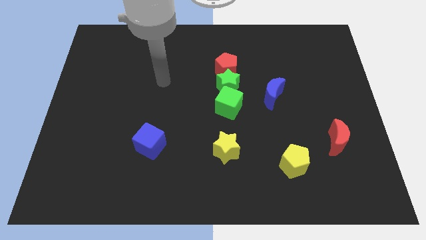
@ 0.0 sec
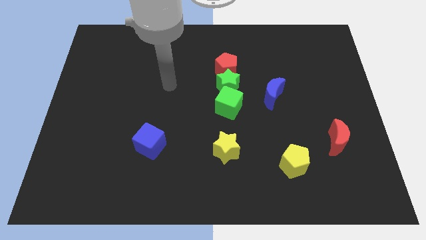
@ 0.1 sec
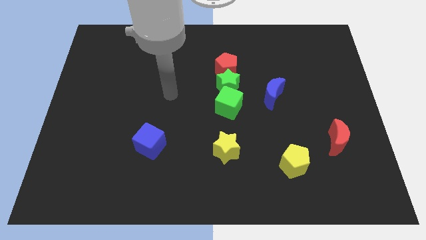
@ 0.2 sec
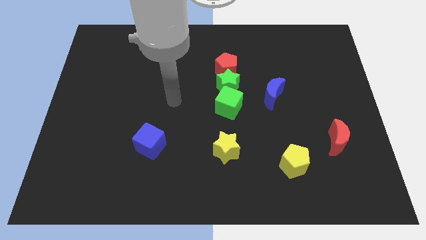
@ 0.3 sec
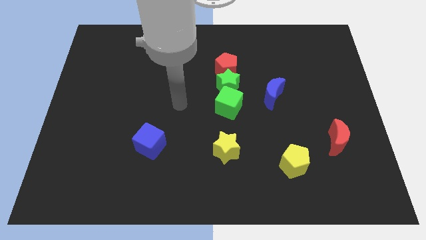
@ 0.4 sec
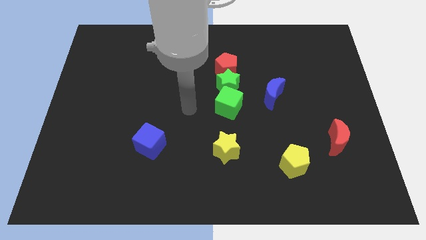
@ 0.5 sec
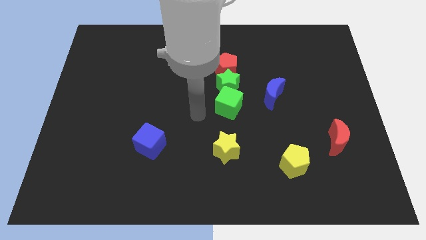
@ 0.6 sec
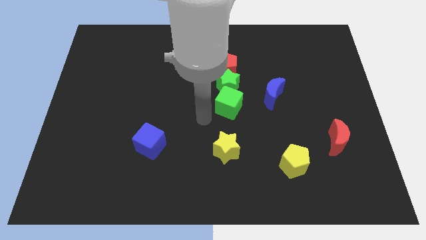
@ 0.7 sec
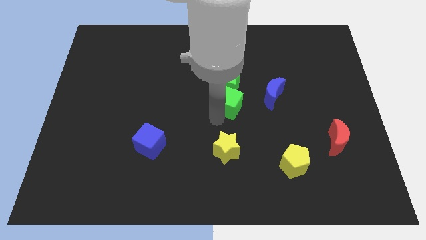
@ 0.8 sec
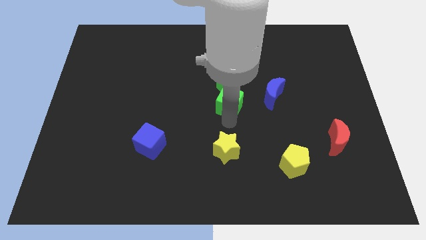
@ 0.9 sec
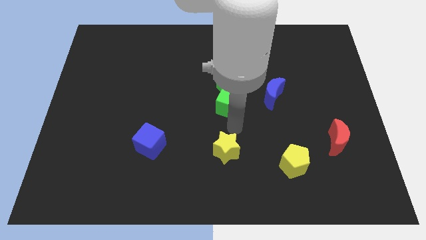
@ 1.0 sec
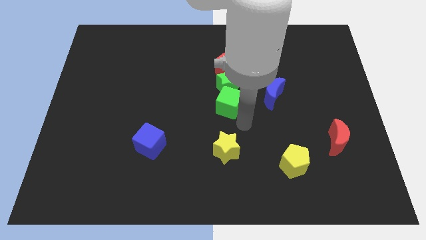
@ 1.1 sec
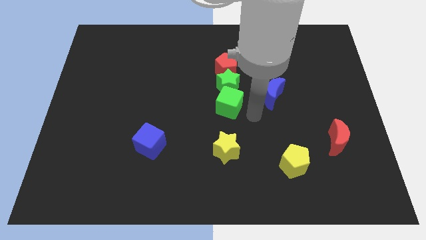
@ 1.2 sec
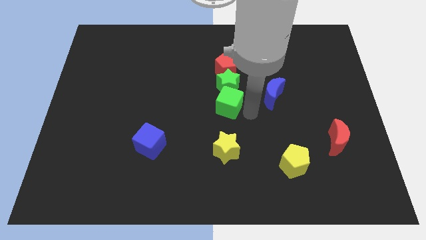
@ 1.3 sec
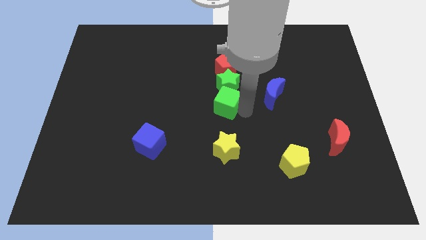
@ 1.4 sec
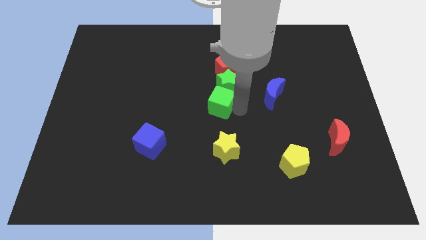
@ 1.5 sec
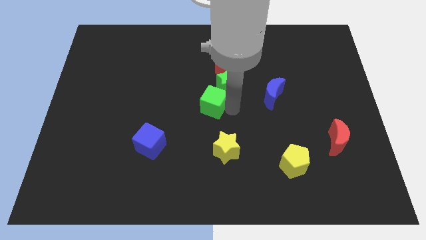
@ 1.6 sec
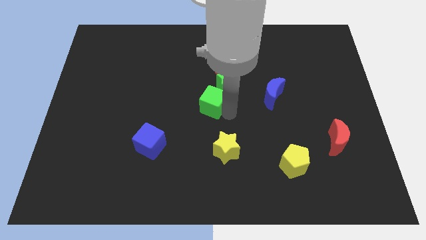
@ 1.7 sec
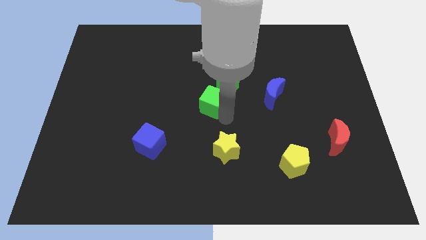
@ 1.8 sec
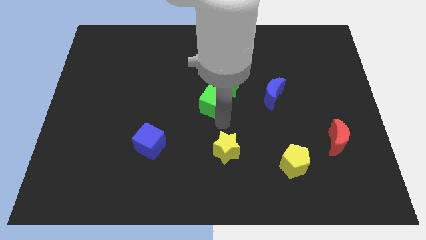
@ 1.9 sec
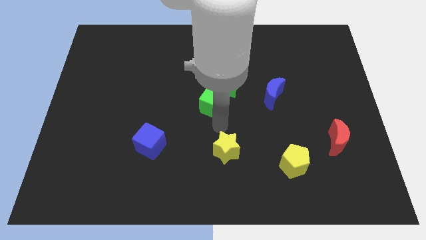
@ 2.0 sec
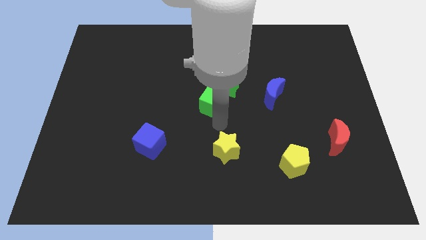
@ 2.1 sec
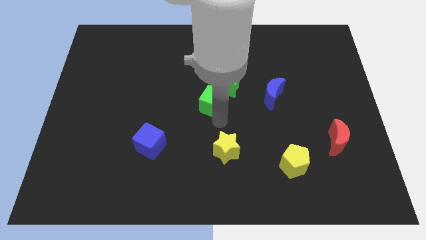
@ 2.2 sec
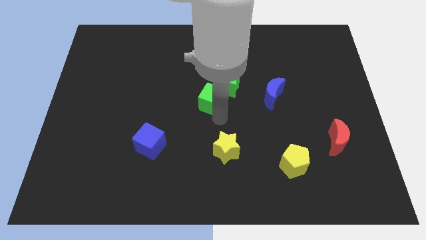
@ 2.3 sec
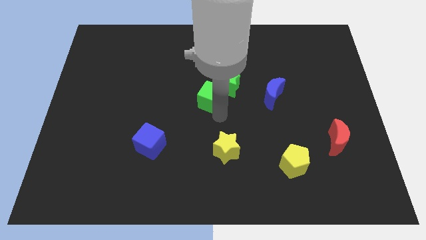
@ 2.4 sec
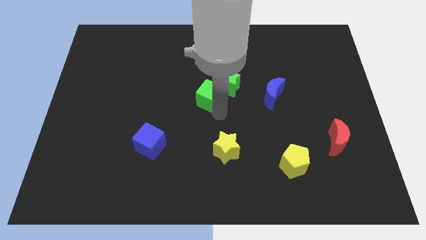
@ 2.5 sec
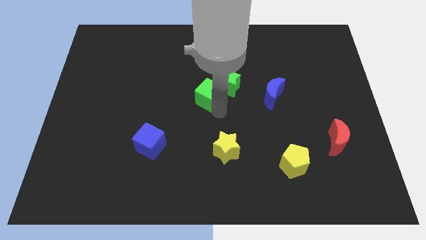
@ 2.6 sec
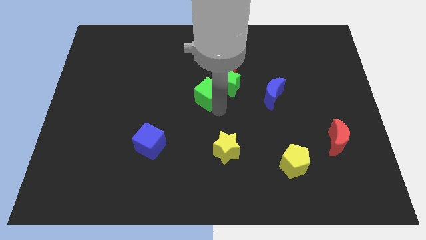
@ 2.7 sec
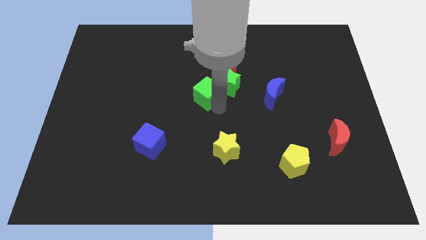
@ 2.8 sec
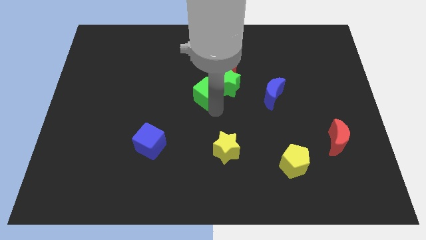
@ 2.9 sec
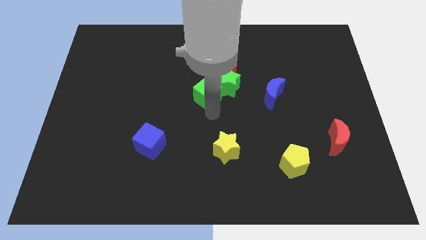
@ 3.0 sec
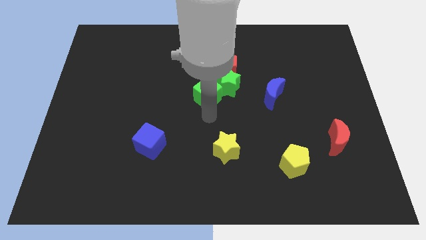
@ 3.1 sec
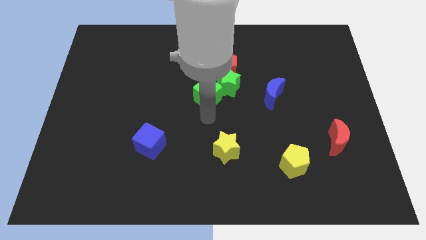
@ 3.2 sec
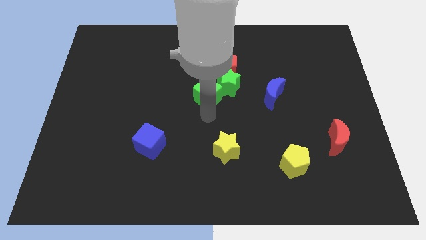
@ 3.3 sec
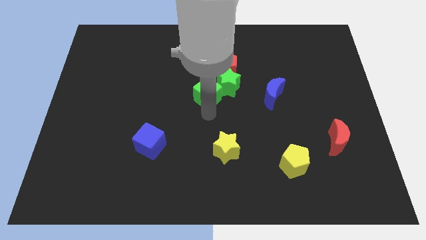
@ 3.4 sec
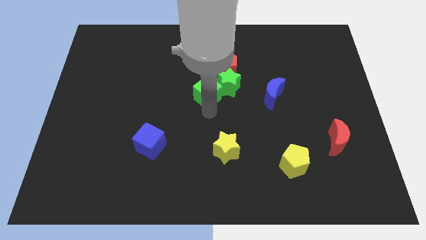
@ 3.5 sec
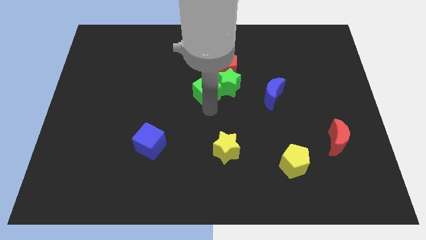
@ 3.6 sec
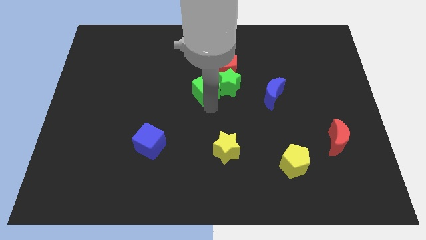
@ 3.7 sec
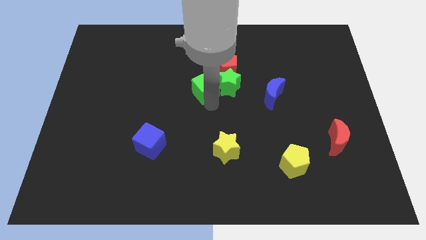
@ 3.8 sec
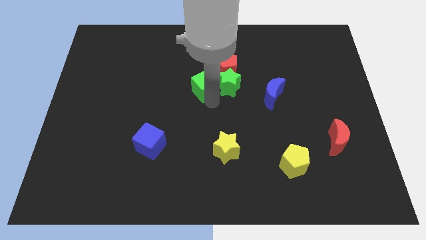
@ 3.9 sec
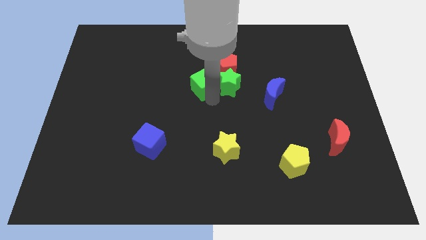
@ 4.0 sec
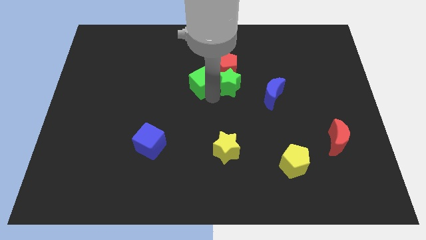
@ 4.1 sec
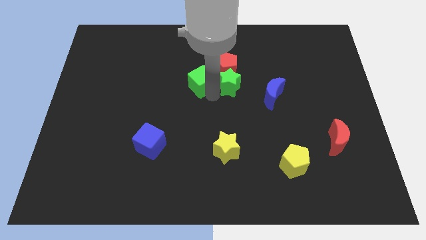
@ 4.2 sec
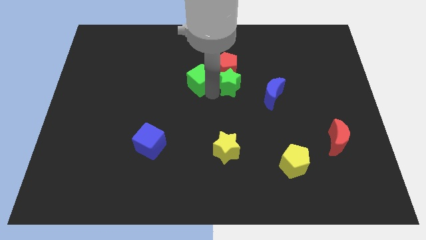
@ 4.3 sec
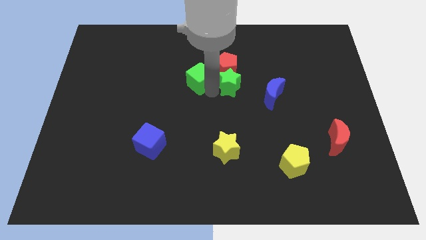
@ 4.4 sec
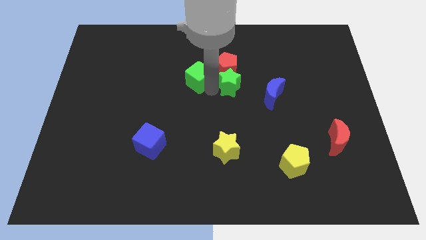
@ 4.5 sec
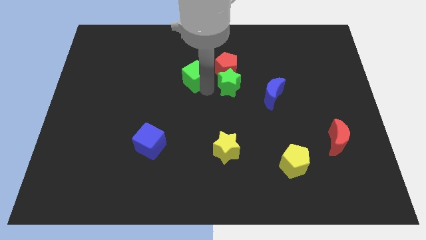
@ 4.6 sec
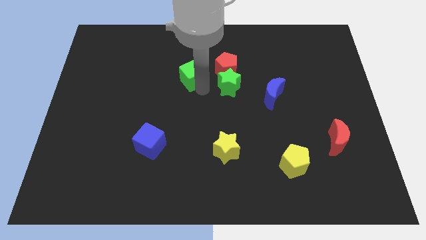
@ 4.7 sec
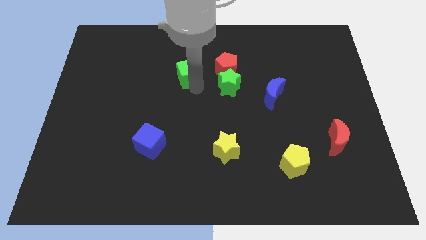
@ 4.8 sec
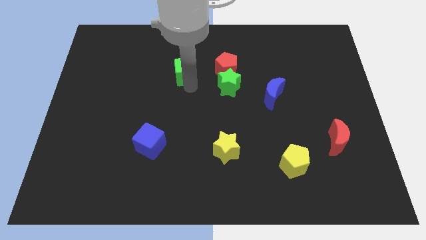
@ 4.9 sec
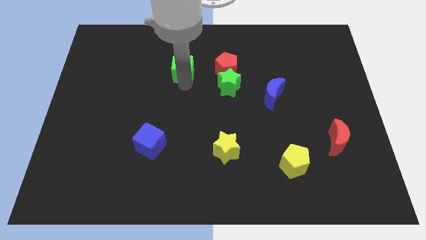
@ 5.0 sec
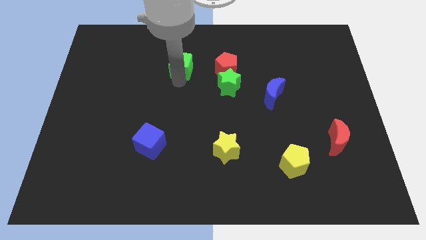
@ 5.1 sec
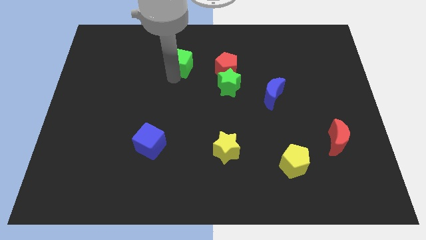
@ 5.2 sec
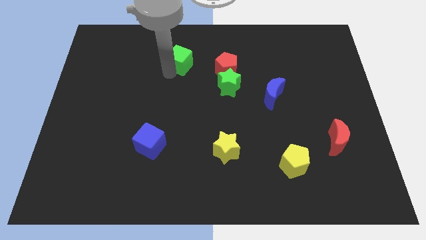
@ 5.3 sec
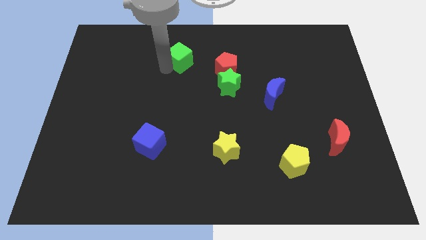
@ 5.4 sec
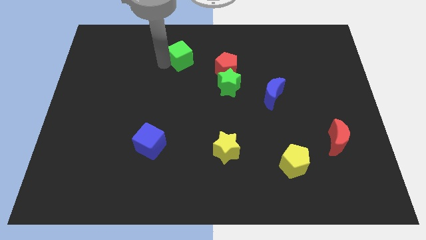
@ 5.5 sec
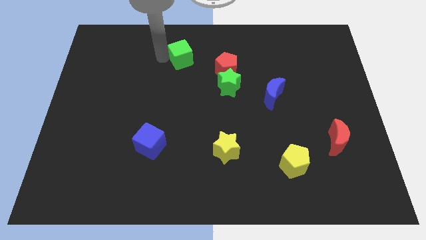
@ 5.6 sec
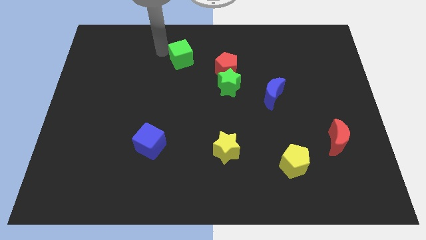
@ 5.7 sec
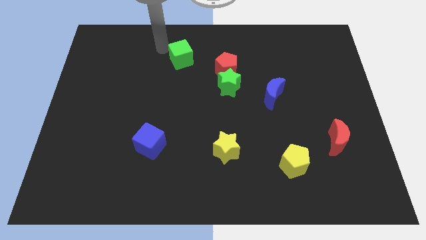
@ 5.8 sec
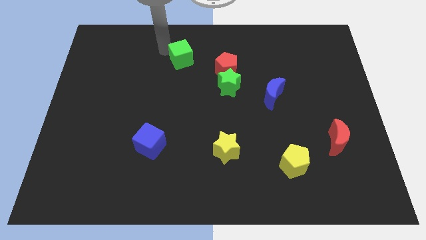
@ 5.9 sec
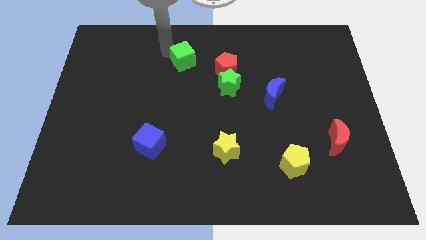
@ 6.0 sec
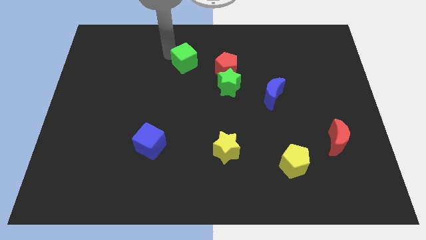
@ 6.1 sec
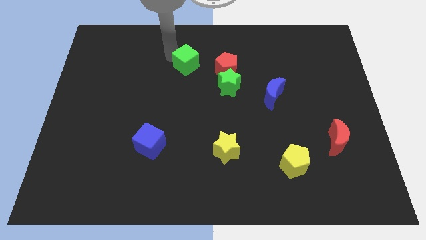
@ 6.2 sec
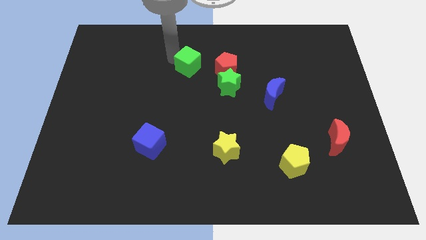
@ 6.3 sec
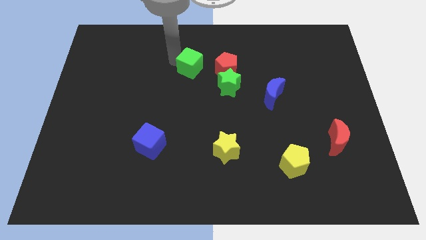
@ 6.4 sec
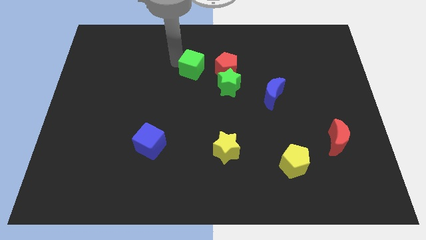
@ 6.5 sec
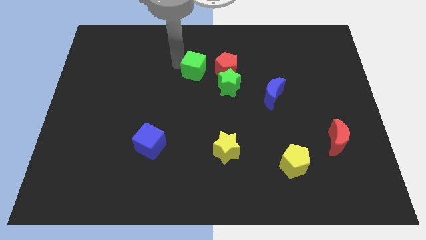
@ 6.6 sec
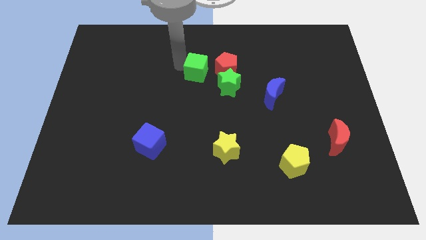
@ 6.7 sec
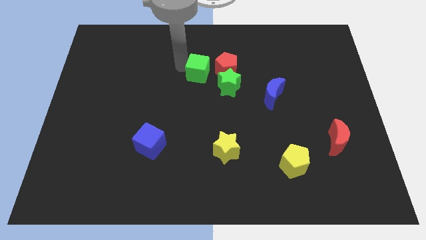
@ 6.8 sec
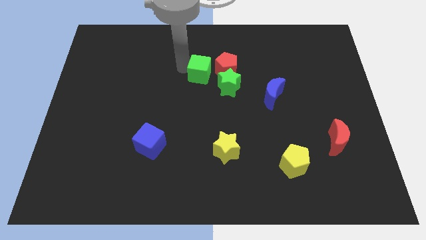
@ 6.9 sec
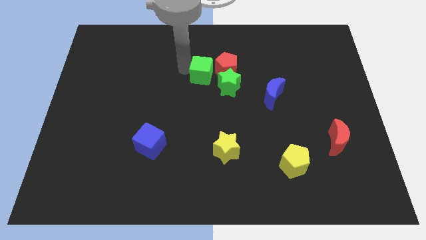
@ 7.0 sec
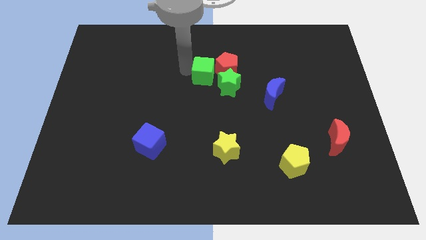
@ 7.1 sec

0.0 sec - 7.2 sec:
push the green cube towards the red pentagon
